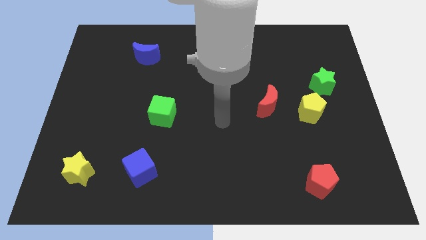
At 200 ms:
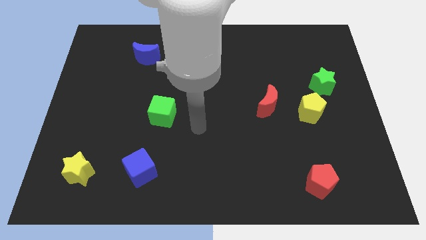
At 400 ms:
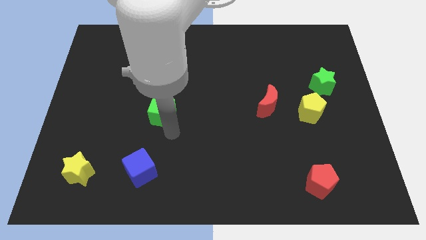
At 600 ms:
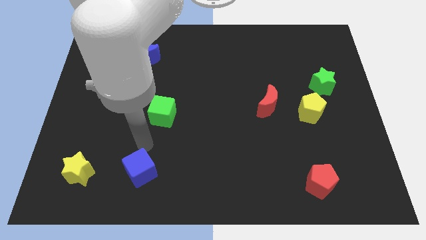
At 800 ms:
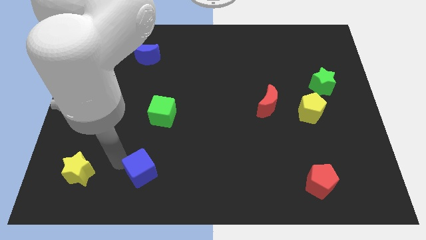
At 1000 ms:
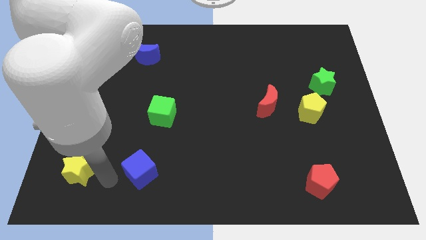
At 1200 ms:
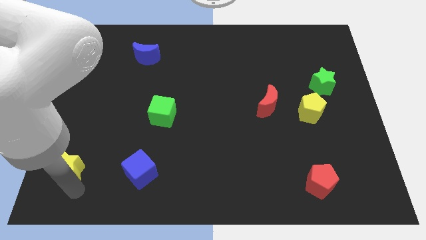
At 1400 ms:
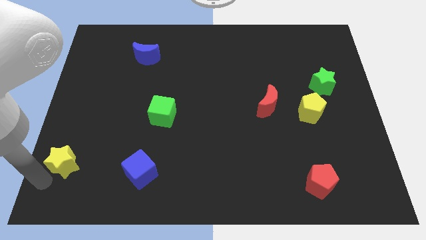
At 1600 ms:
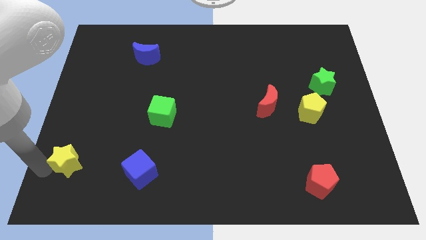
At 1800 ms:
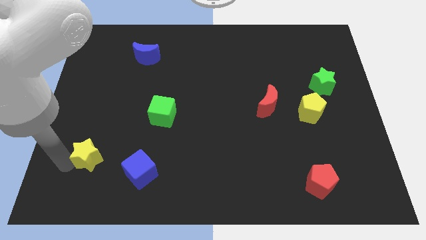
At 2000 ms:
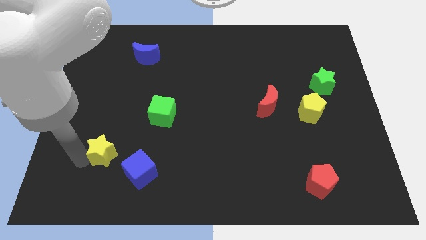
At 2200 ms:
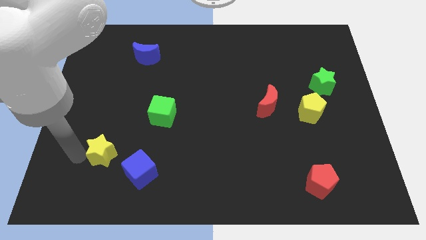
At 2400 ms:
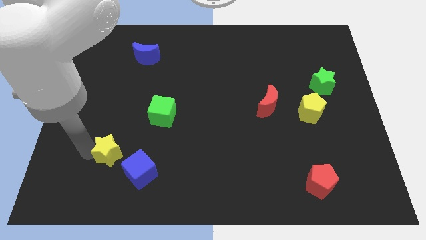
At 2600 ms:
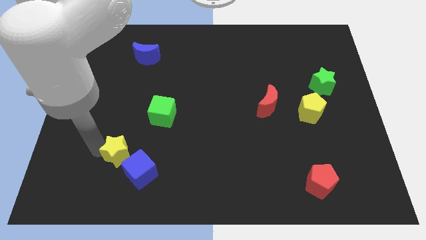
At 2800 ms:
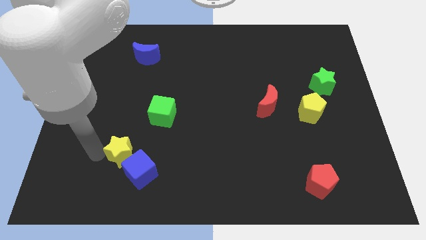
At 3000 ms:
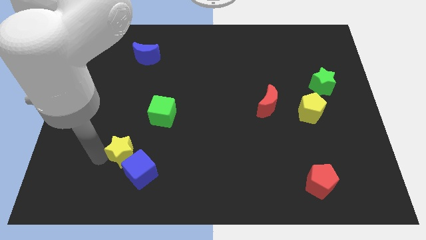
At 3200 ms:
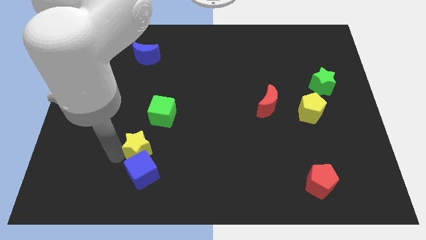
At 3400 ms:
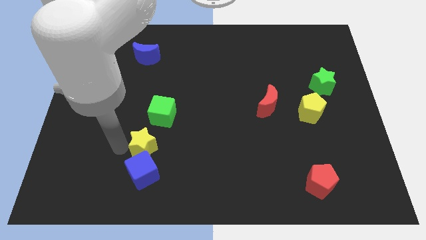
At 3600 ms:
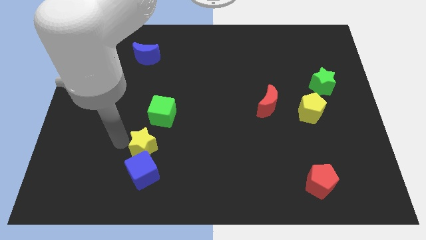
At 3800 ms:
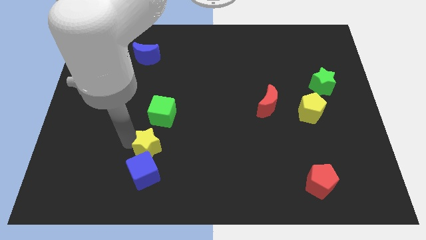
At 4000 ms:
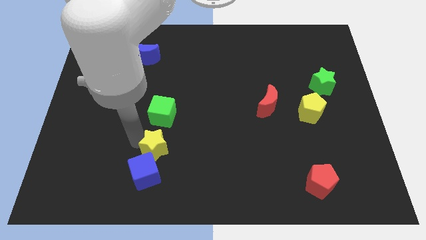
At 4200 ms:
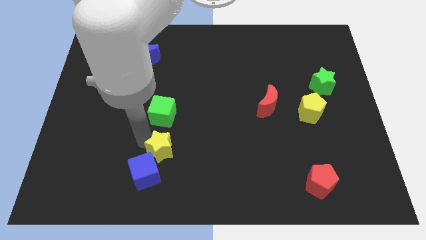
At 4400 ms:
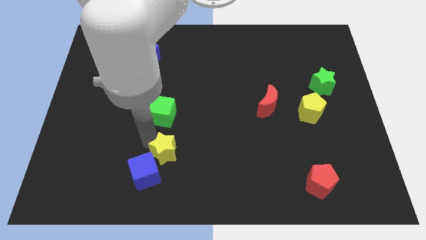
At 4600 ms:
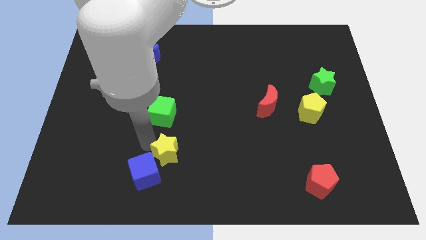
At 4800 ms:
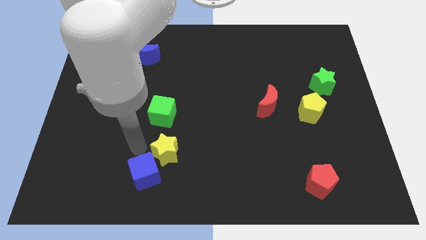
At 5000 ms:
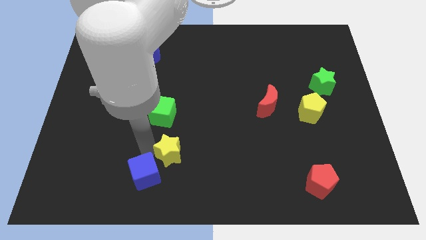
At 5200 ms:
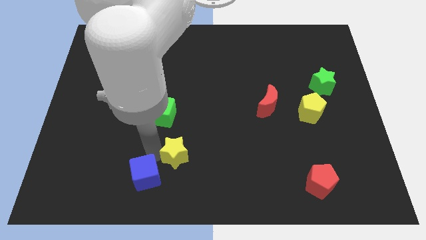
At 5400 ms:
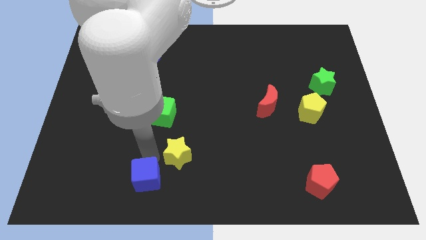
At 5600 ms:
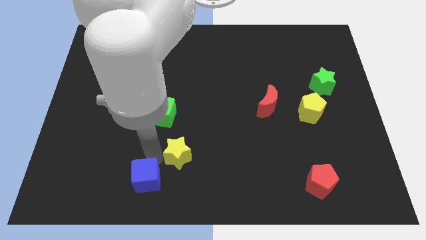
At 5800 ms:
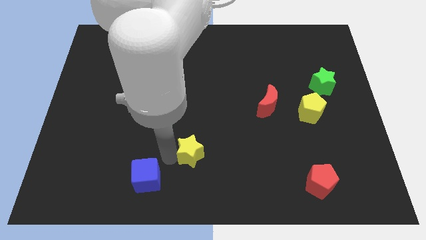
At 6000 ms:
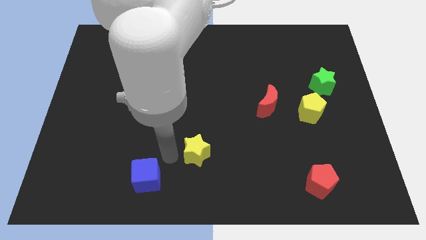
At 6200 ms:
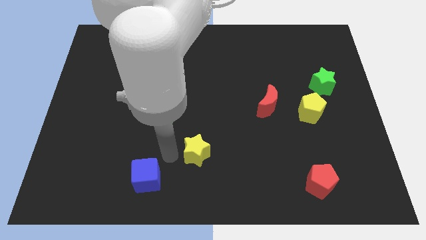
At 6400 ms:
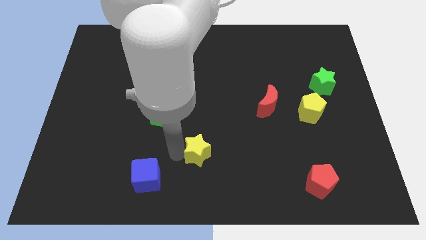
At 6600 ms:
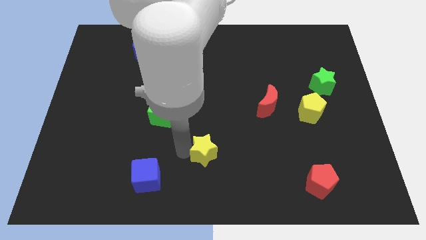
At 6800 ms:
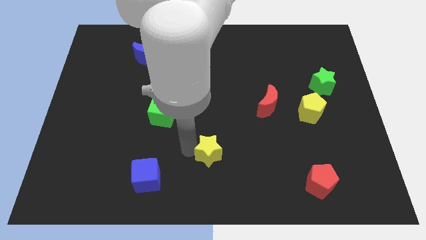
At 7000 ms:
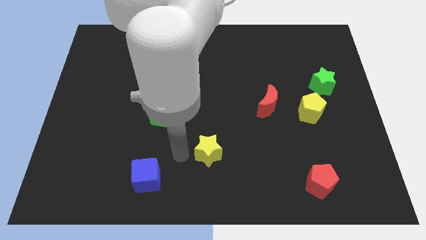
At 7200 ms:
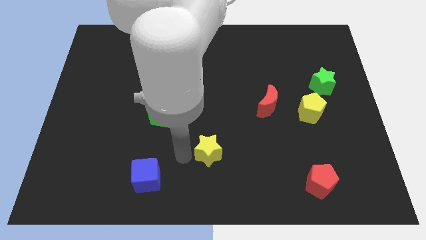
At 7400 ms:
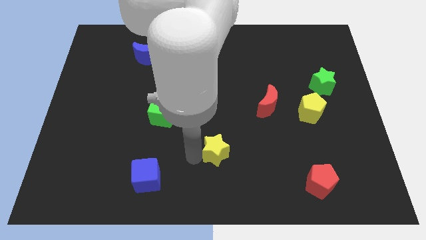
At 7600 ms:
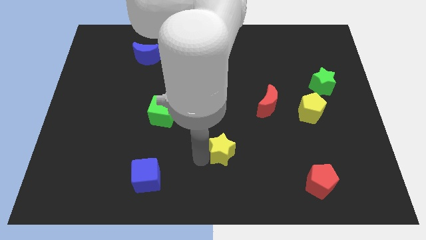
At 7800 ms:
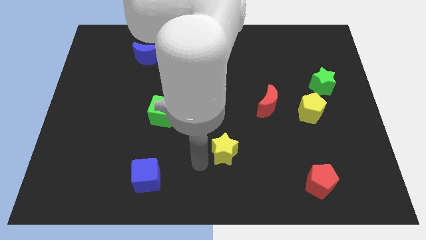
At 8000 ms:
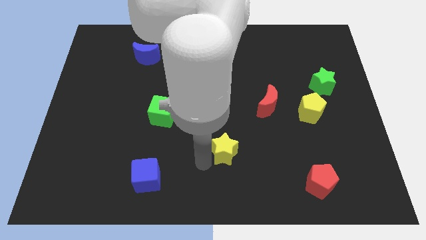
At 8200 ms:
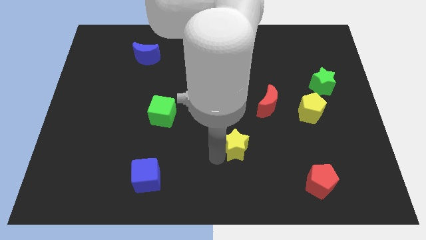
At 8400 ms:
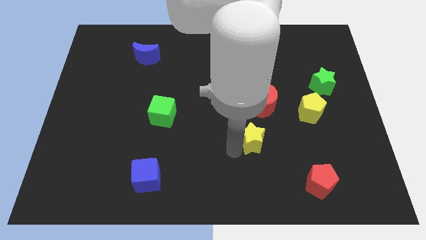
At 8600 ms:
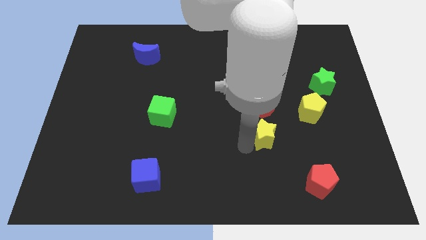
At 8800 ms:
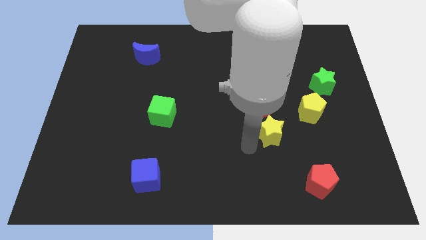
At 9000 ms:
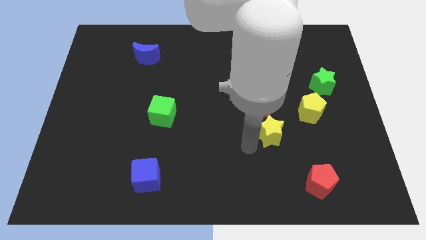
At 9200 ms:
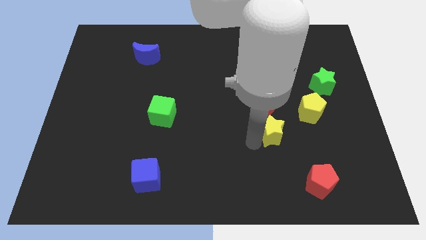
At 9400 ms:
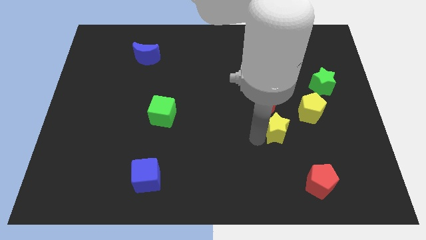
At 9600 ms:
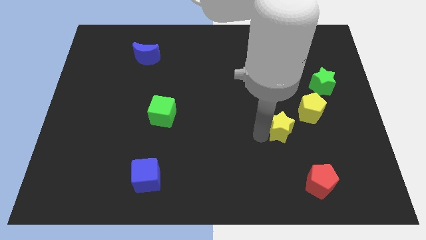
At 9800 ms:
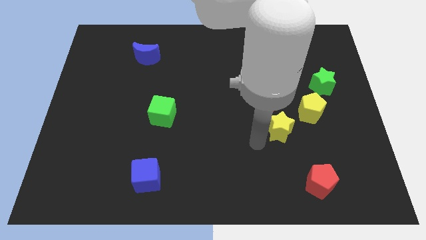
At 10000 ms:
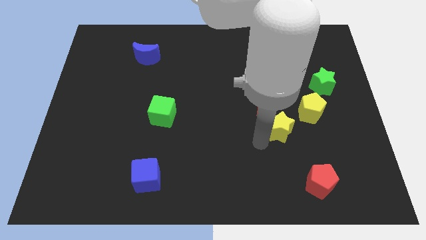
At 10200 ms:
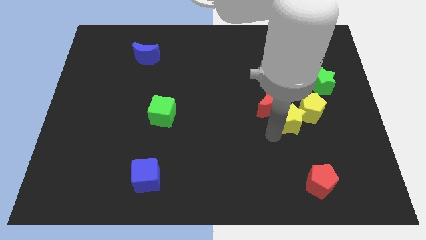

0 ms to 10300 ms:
slide the yellow star towards the yellow pentagon

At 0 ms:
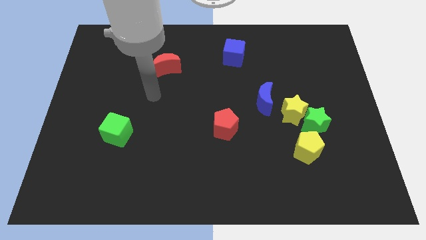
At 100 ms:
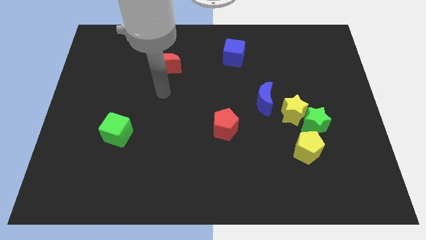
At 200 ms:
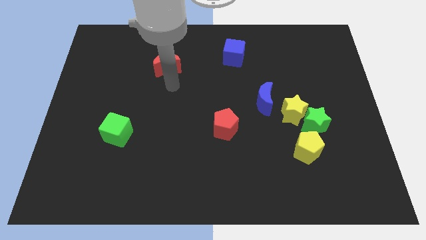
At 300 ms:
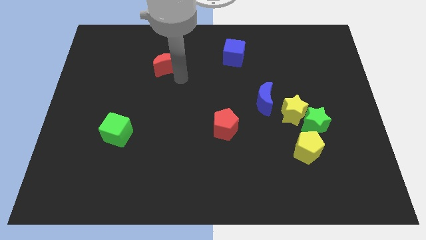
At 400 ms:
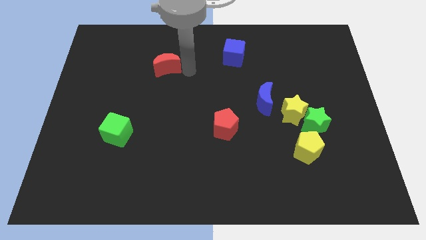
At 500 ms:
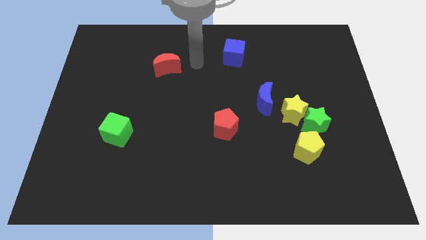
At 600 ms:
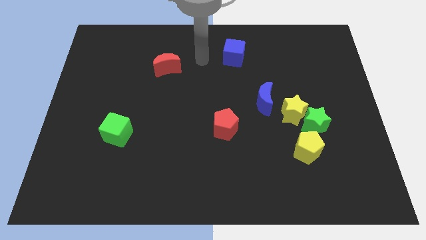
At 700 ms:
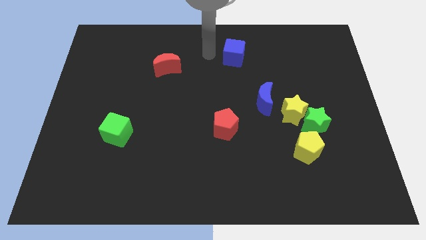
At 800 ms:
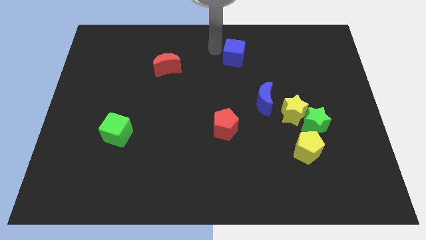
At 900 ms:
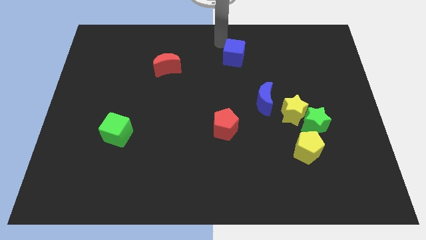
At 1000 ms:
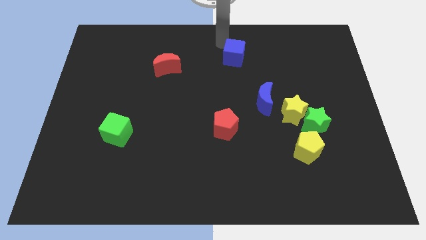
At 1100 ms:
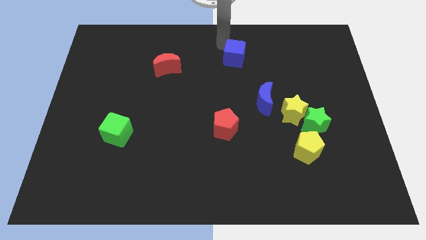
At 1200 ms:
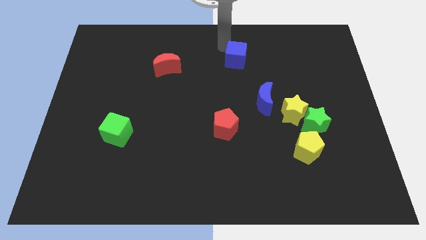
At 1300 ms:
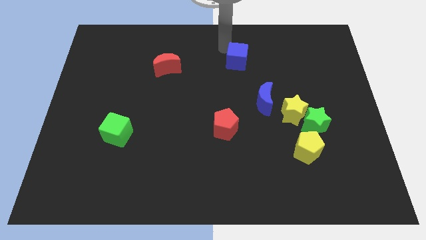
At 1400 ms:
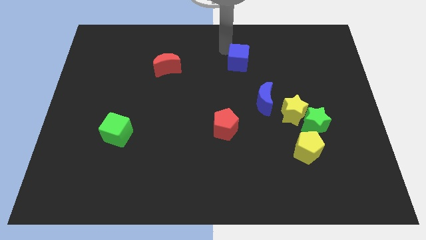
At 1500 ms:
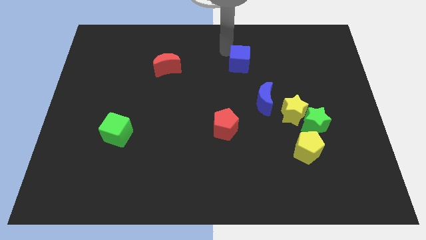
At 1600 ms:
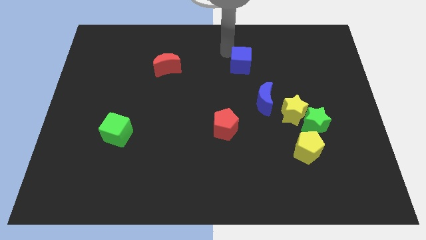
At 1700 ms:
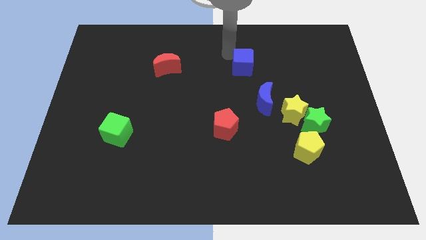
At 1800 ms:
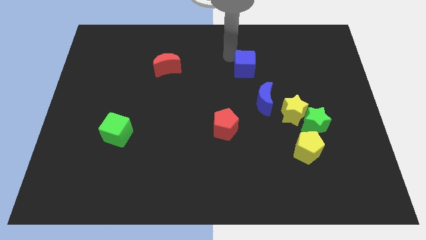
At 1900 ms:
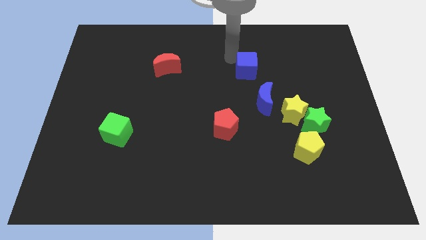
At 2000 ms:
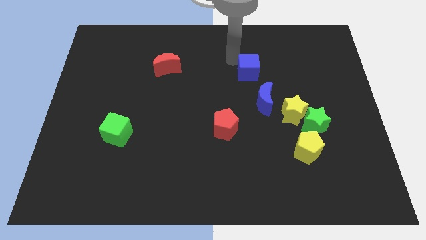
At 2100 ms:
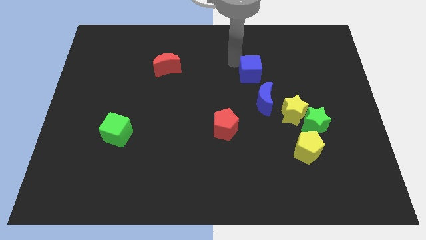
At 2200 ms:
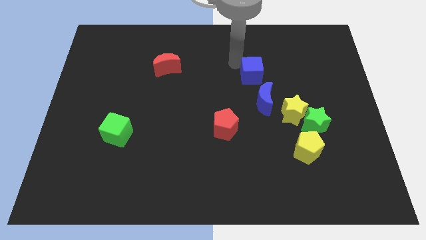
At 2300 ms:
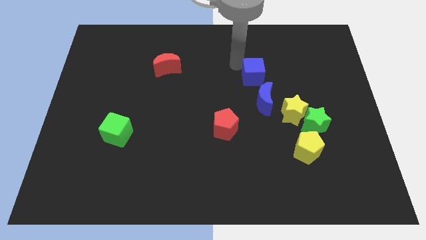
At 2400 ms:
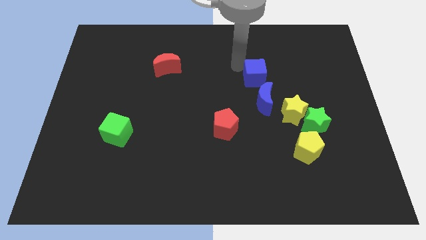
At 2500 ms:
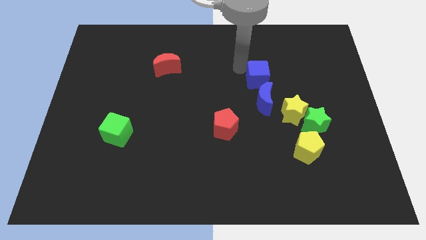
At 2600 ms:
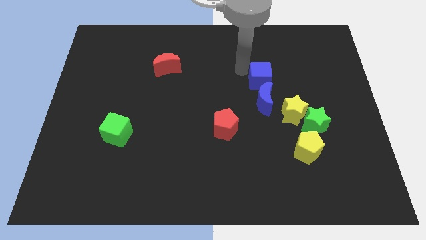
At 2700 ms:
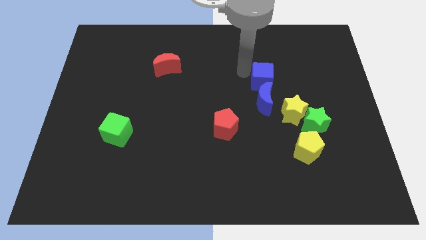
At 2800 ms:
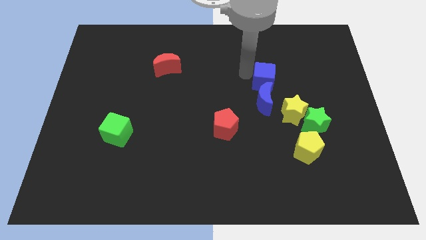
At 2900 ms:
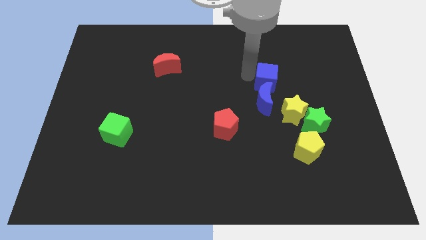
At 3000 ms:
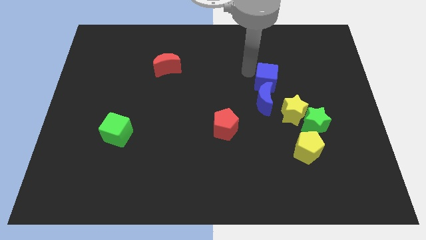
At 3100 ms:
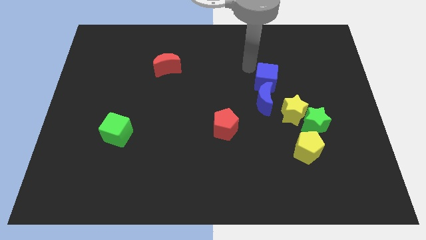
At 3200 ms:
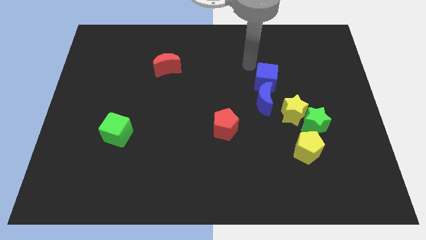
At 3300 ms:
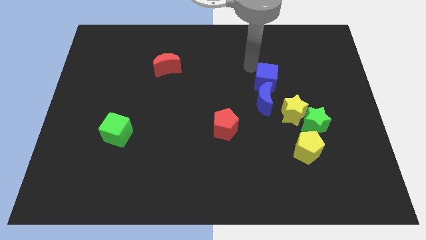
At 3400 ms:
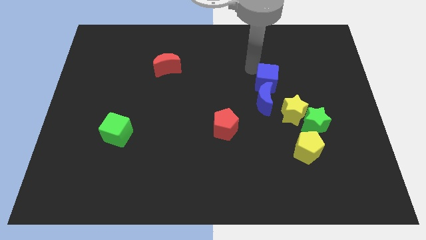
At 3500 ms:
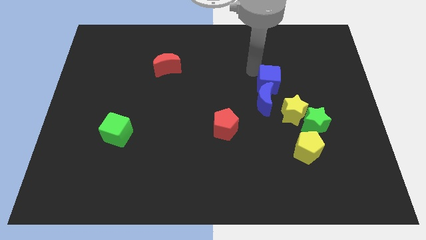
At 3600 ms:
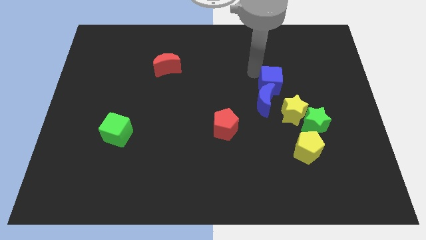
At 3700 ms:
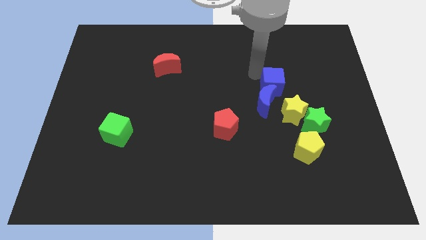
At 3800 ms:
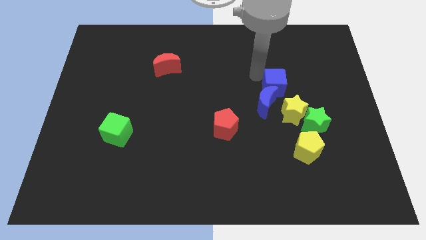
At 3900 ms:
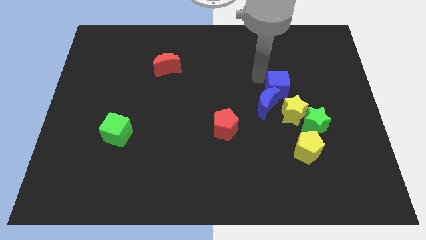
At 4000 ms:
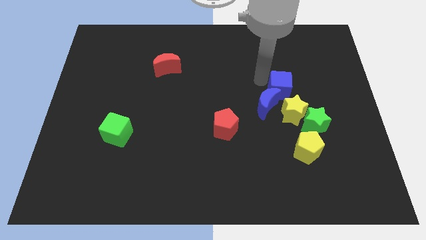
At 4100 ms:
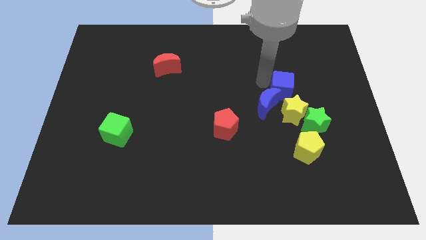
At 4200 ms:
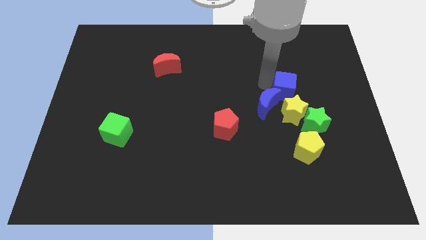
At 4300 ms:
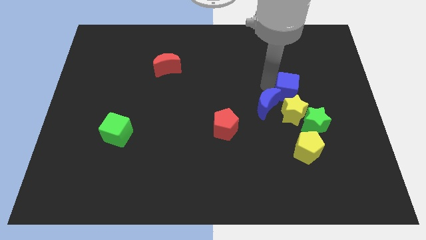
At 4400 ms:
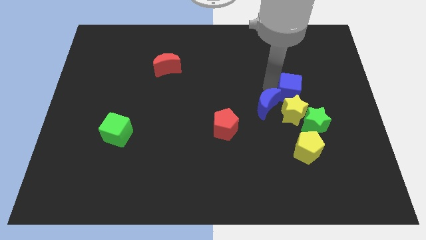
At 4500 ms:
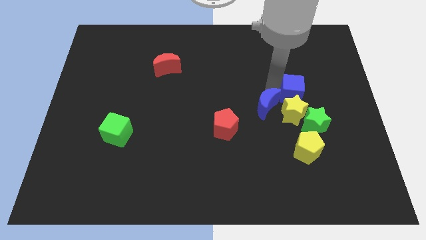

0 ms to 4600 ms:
slide the blue cube next to the yellow star
